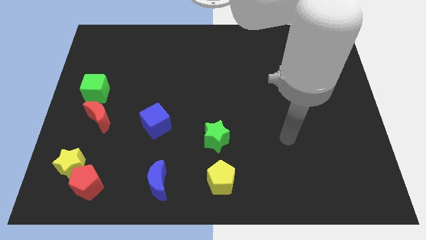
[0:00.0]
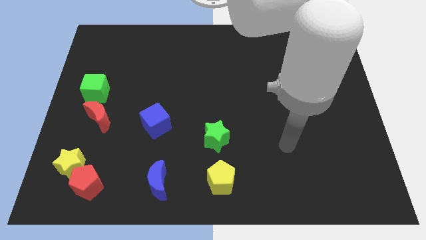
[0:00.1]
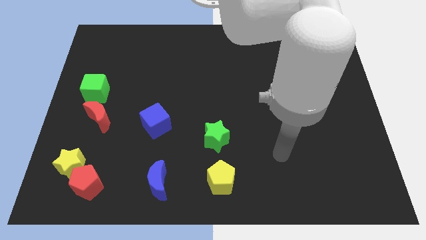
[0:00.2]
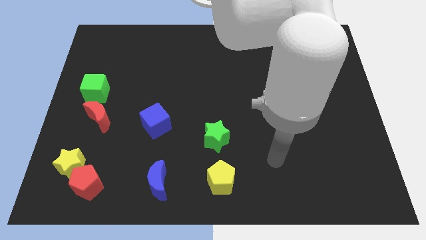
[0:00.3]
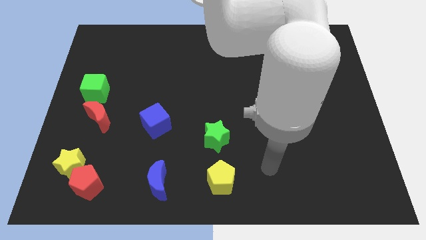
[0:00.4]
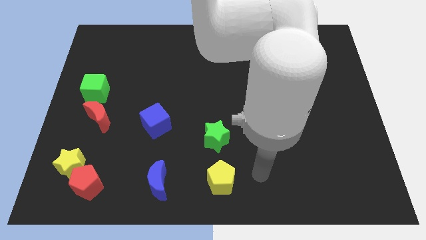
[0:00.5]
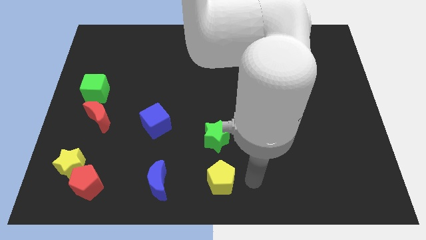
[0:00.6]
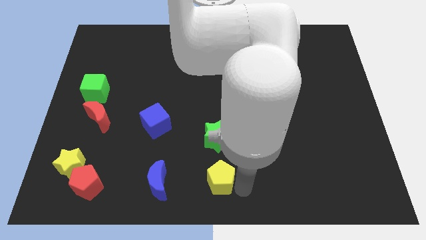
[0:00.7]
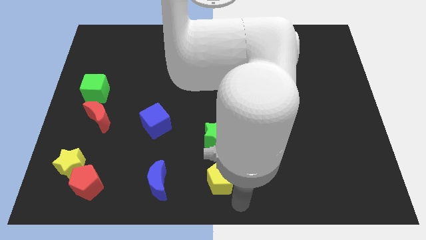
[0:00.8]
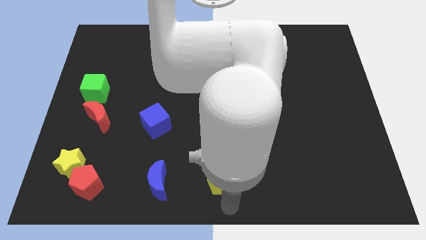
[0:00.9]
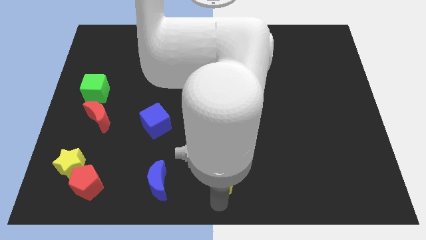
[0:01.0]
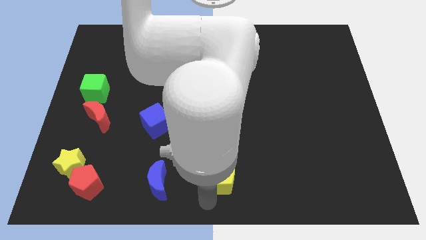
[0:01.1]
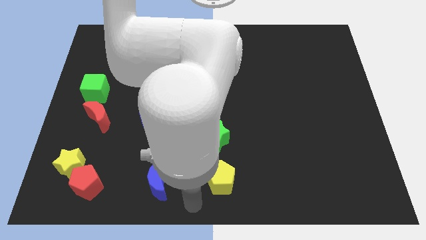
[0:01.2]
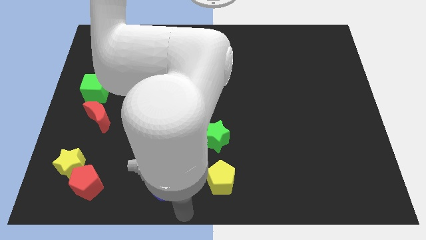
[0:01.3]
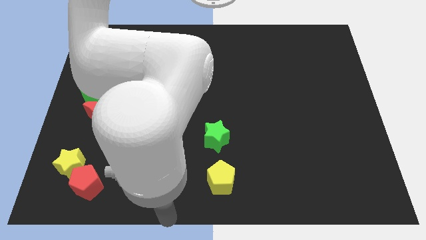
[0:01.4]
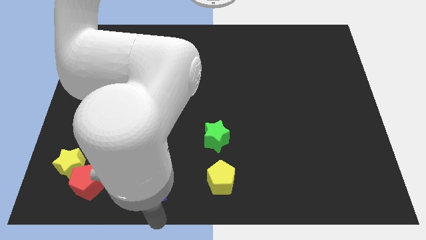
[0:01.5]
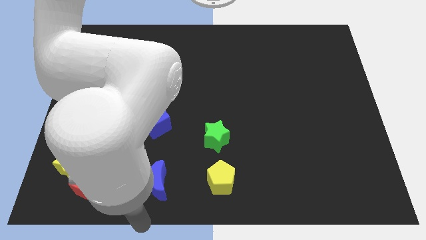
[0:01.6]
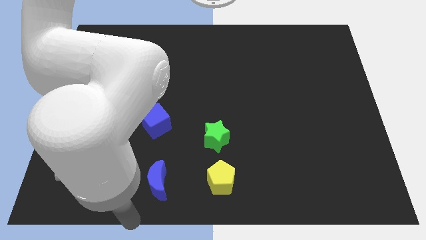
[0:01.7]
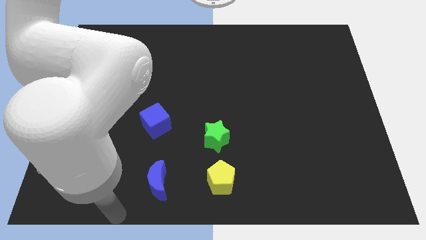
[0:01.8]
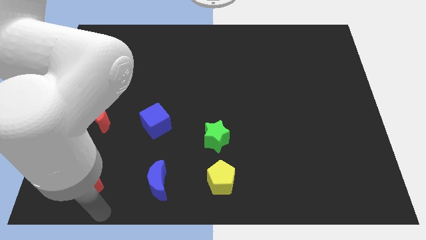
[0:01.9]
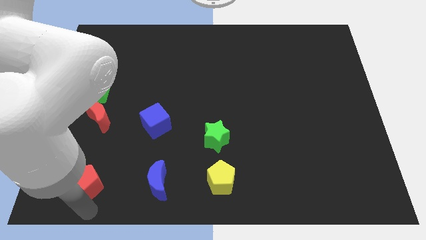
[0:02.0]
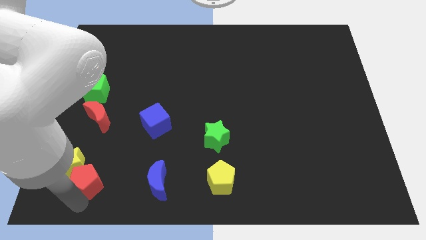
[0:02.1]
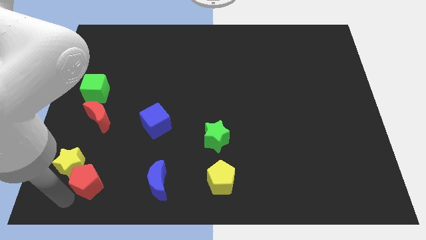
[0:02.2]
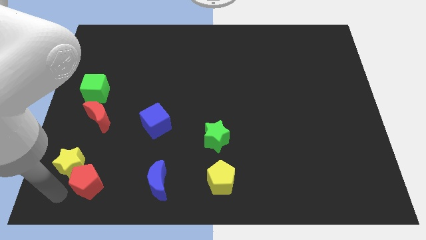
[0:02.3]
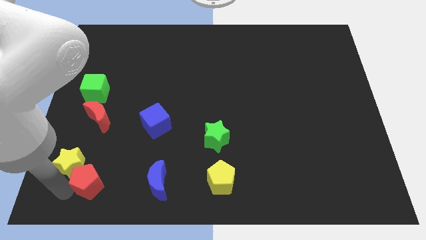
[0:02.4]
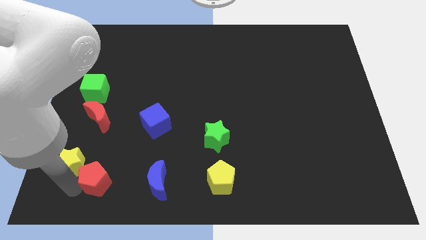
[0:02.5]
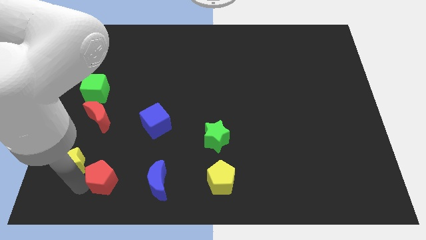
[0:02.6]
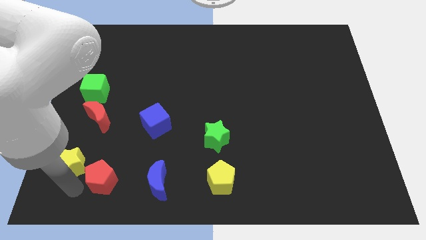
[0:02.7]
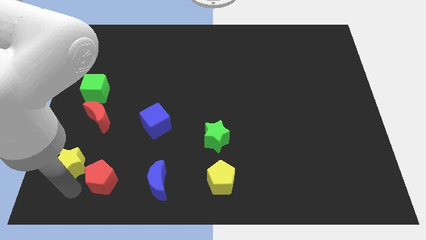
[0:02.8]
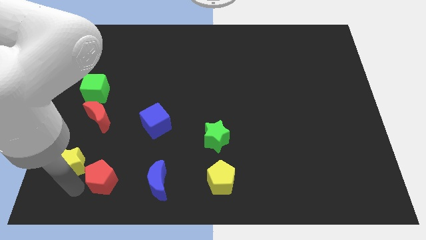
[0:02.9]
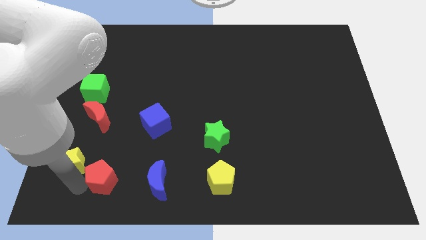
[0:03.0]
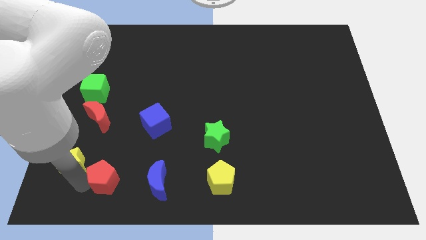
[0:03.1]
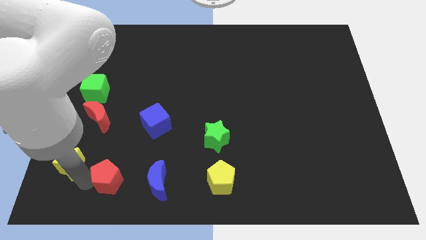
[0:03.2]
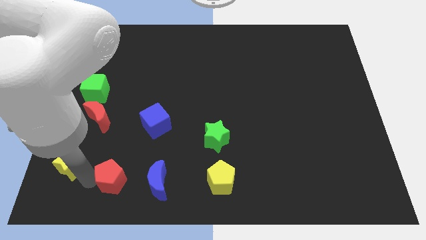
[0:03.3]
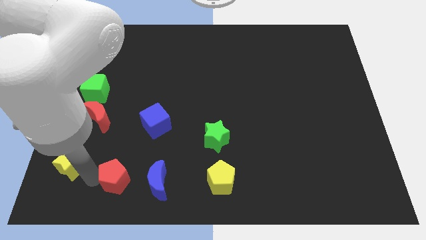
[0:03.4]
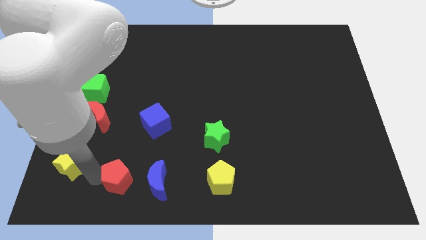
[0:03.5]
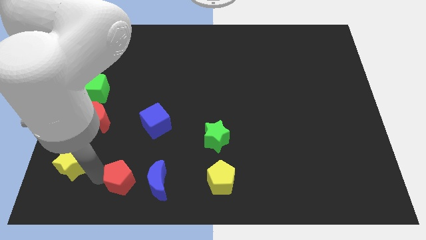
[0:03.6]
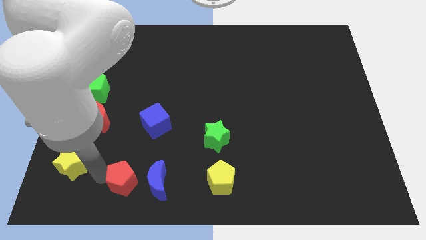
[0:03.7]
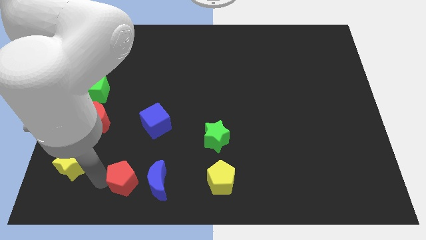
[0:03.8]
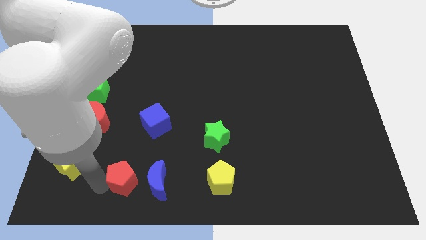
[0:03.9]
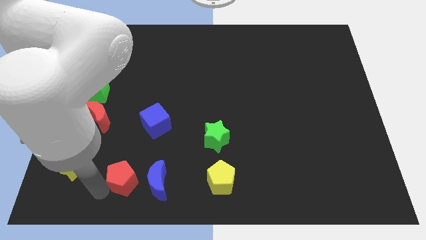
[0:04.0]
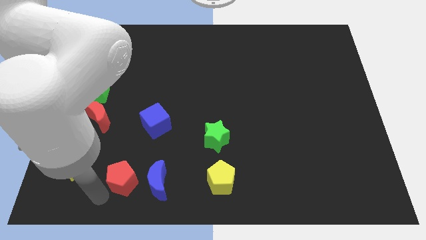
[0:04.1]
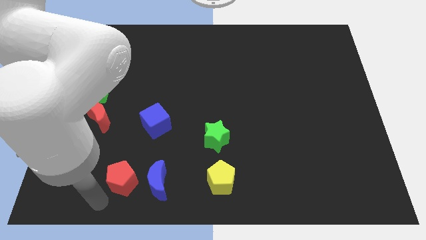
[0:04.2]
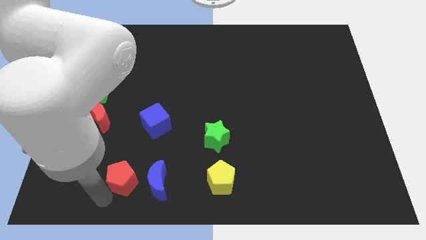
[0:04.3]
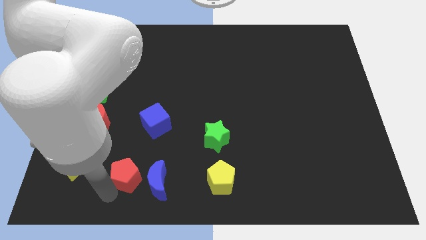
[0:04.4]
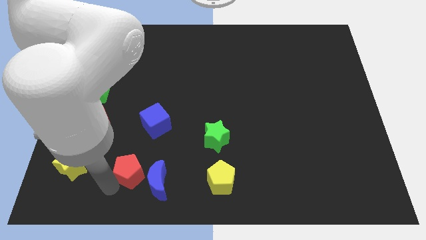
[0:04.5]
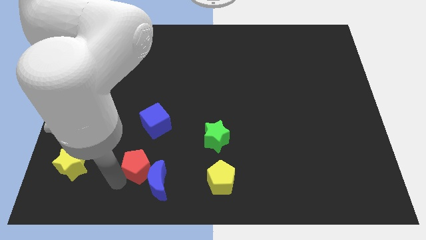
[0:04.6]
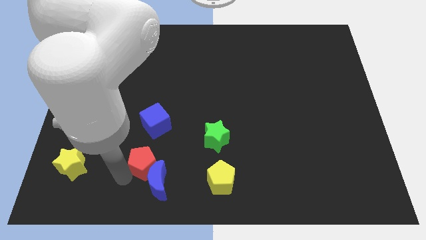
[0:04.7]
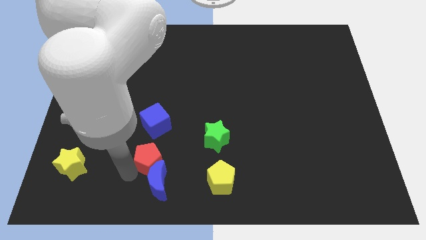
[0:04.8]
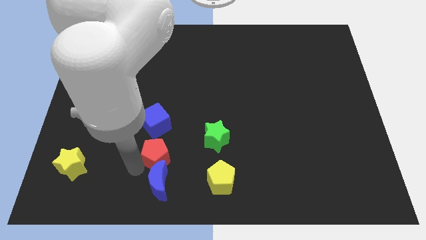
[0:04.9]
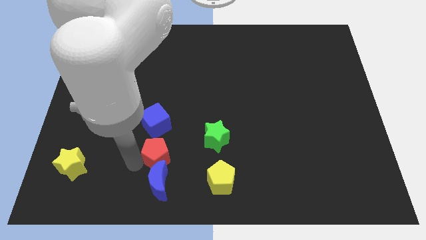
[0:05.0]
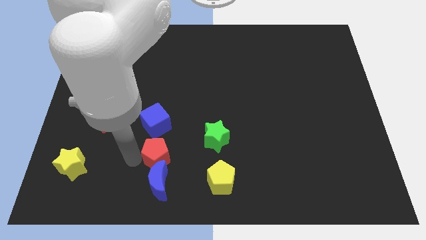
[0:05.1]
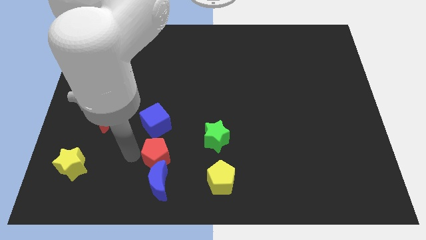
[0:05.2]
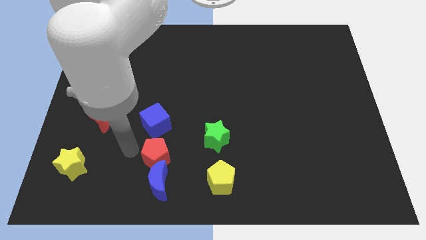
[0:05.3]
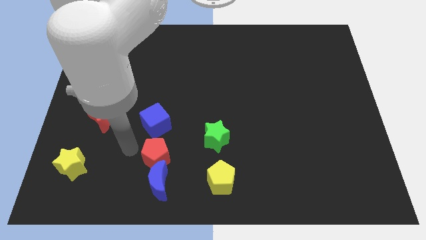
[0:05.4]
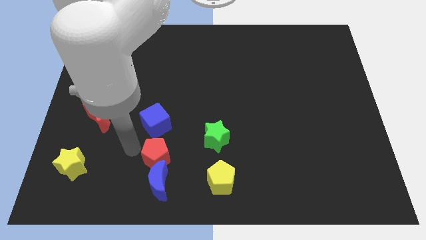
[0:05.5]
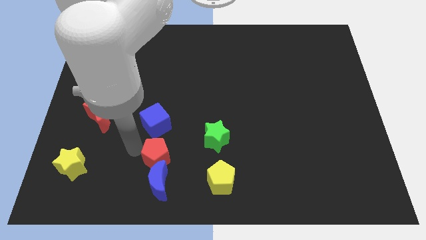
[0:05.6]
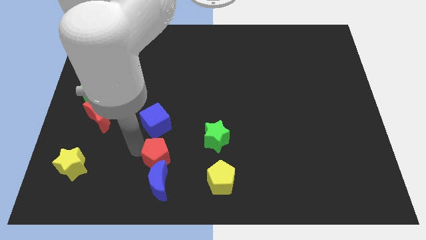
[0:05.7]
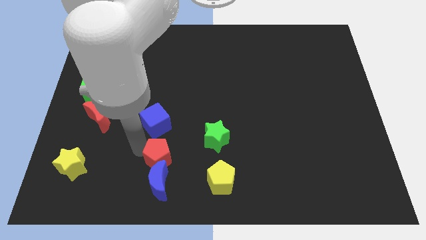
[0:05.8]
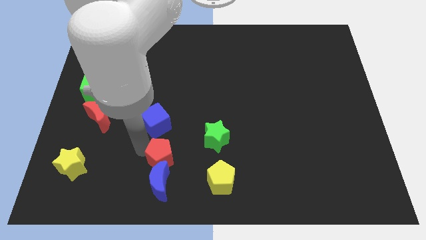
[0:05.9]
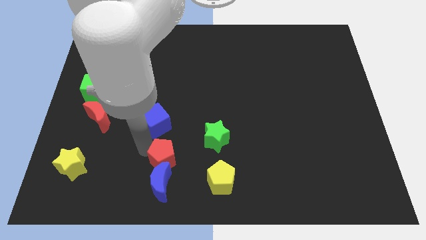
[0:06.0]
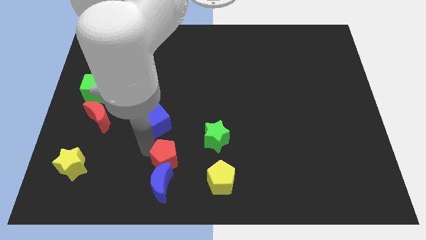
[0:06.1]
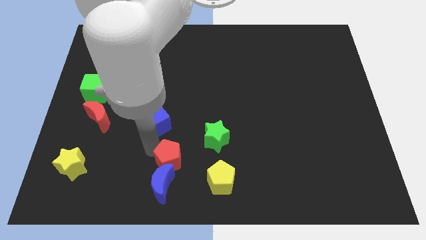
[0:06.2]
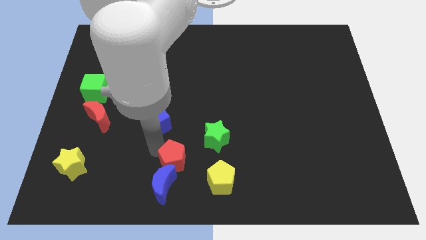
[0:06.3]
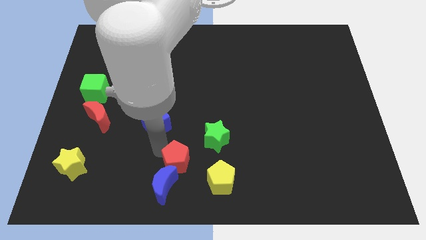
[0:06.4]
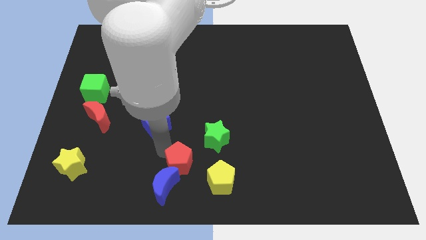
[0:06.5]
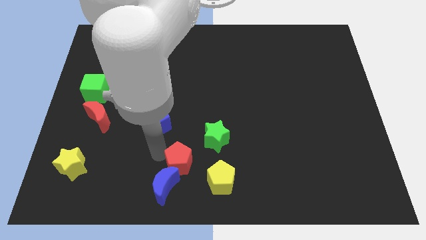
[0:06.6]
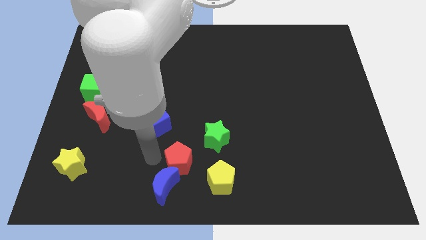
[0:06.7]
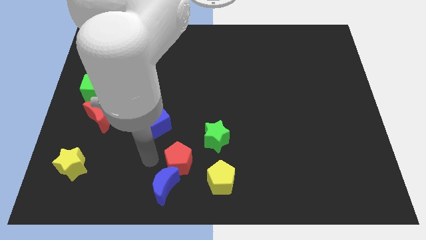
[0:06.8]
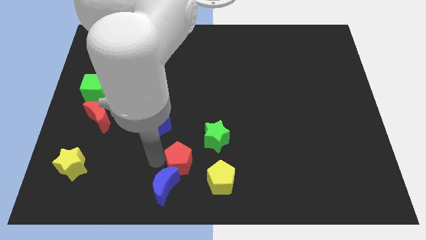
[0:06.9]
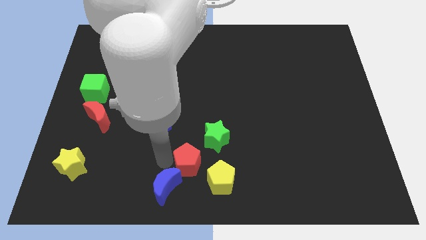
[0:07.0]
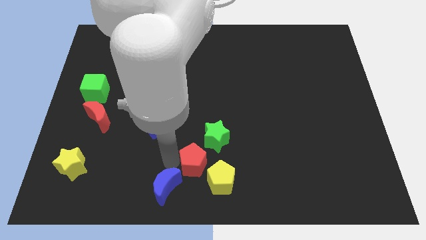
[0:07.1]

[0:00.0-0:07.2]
push the red pentagon right
